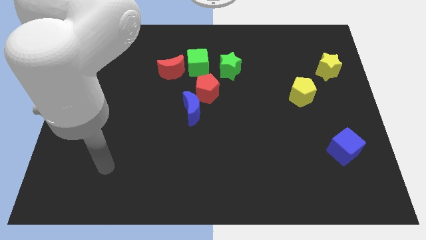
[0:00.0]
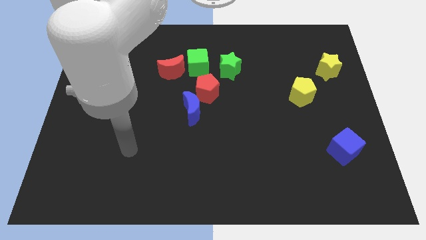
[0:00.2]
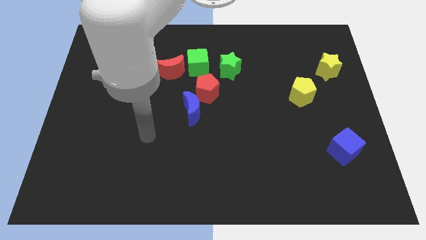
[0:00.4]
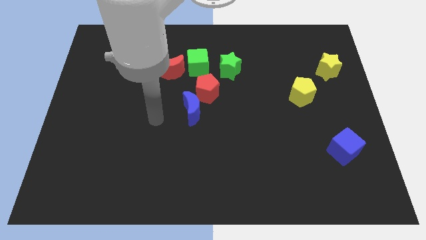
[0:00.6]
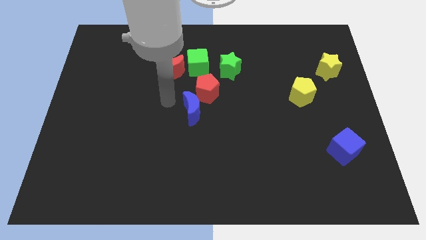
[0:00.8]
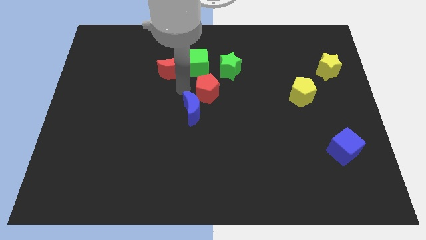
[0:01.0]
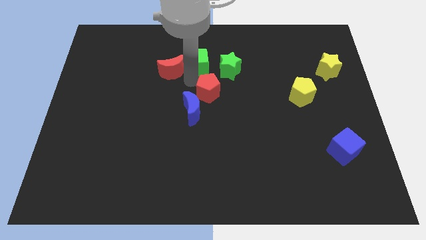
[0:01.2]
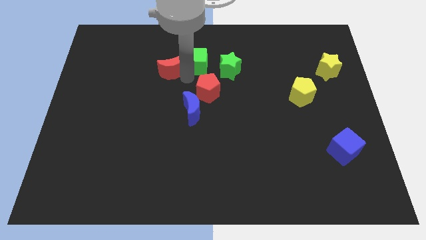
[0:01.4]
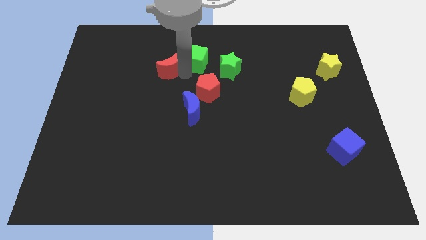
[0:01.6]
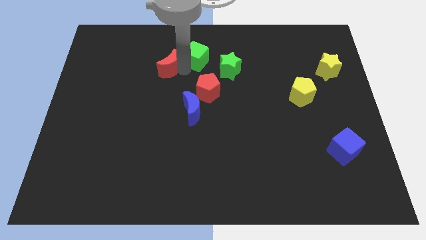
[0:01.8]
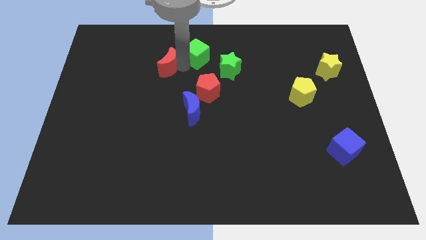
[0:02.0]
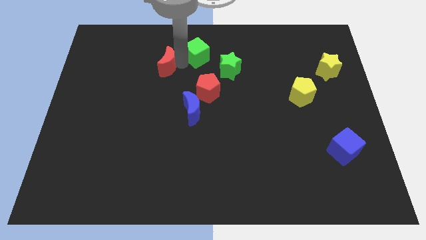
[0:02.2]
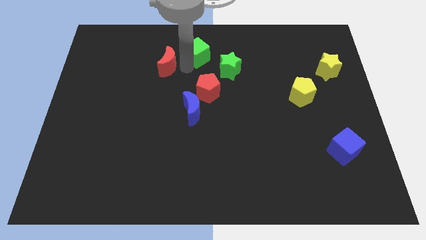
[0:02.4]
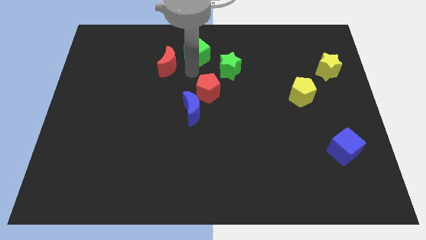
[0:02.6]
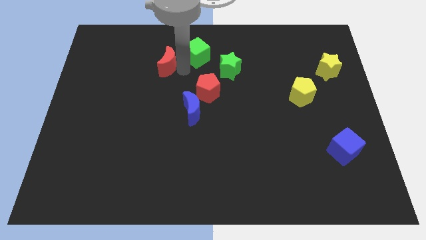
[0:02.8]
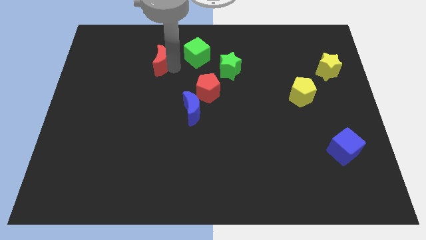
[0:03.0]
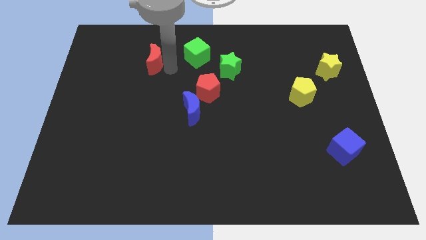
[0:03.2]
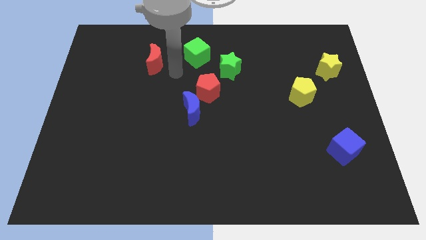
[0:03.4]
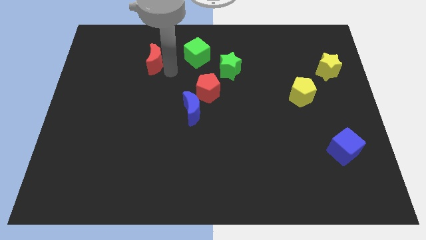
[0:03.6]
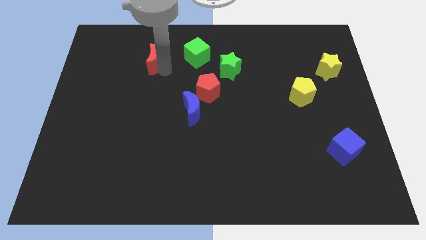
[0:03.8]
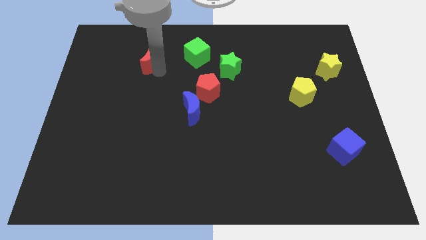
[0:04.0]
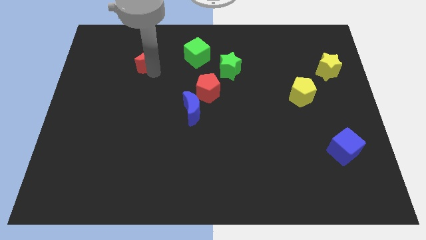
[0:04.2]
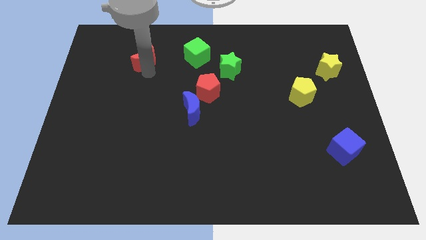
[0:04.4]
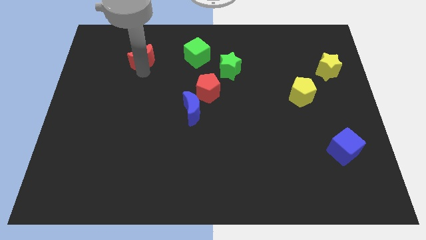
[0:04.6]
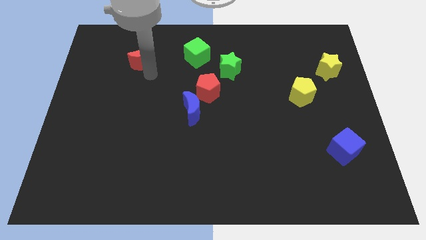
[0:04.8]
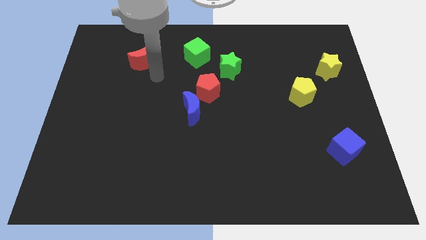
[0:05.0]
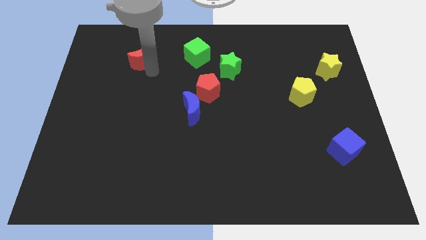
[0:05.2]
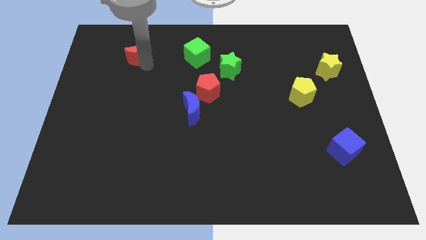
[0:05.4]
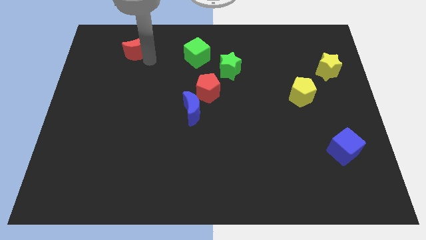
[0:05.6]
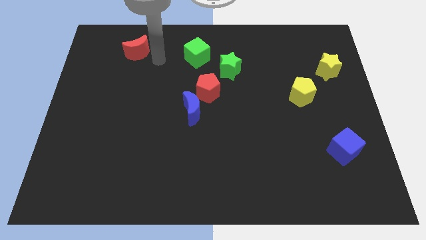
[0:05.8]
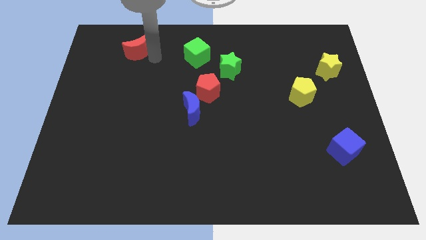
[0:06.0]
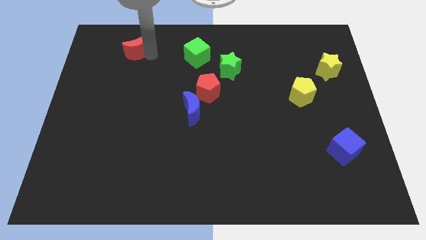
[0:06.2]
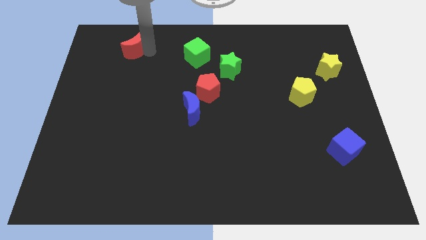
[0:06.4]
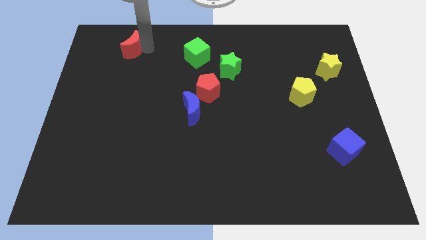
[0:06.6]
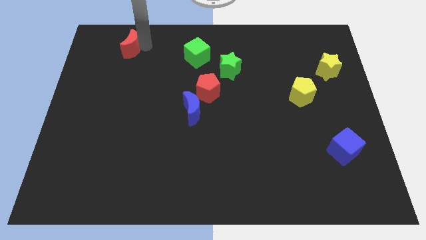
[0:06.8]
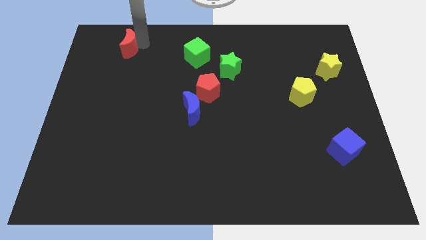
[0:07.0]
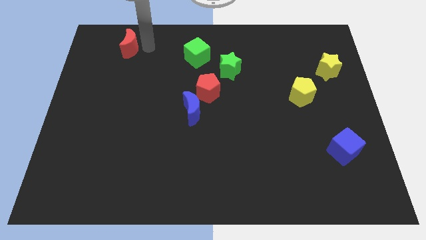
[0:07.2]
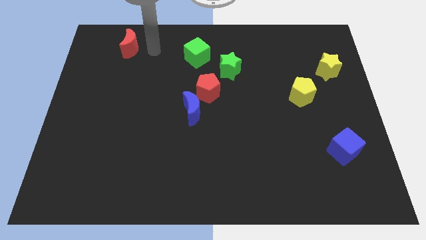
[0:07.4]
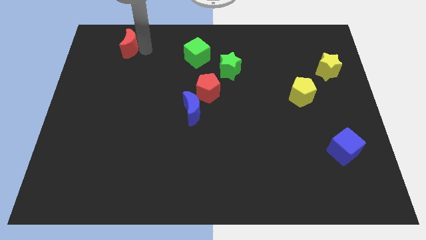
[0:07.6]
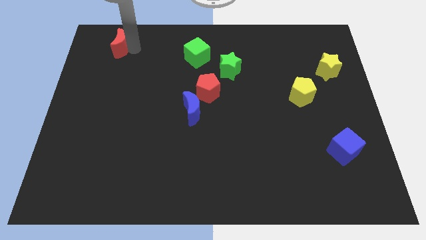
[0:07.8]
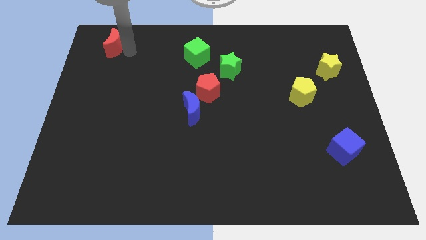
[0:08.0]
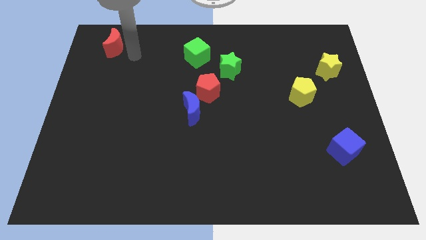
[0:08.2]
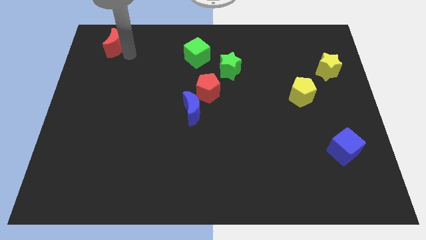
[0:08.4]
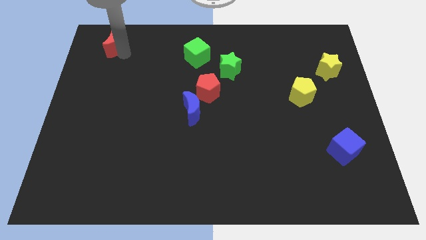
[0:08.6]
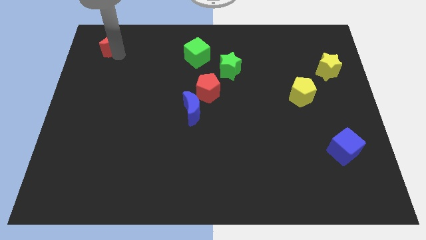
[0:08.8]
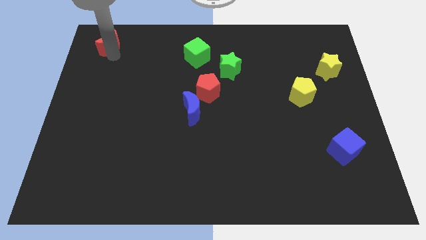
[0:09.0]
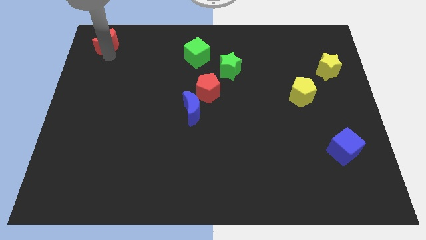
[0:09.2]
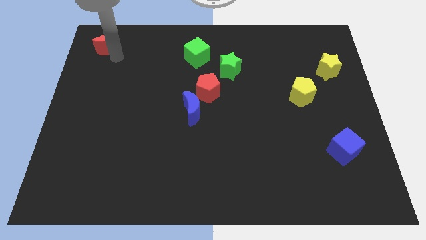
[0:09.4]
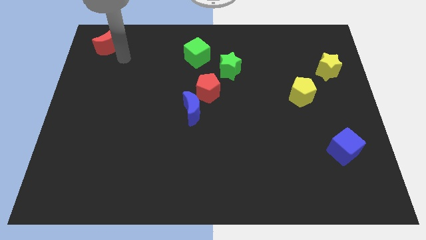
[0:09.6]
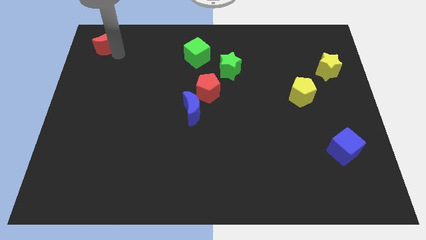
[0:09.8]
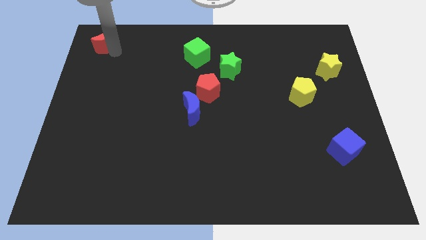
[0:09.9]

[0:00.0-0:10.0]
slide the red moon to the top left corner
